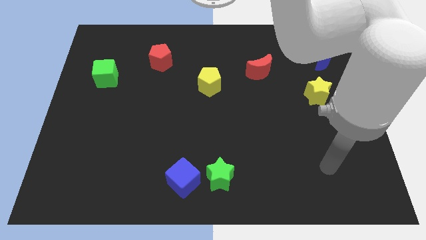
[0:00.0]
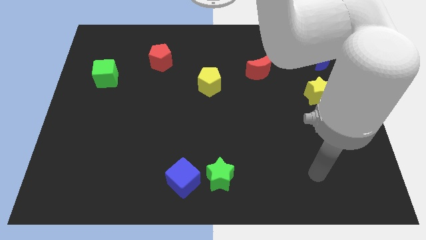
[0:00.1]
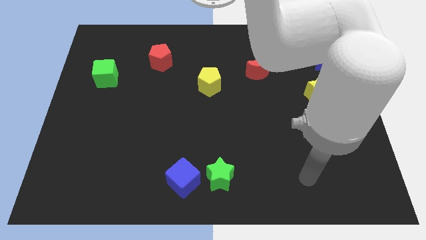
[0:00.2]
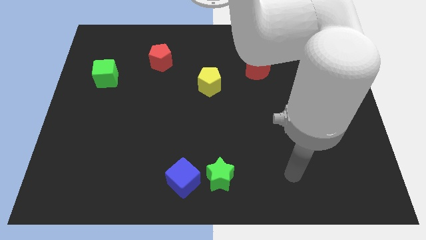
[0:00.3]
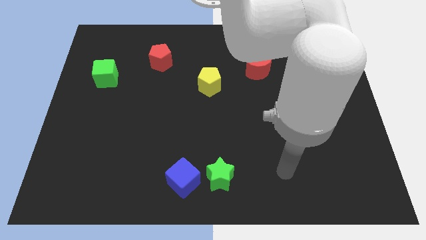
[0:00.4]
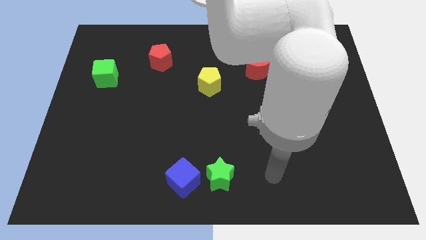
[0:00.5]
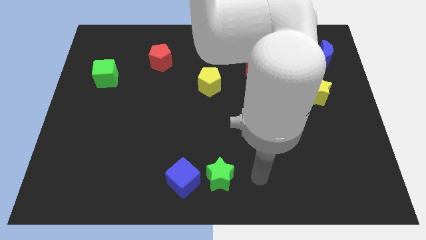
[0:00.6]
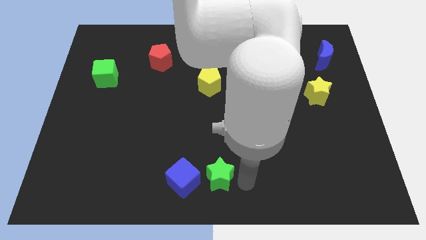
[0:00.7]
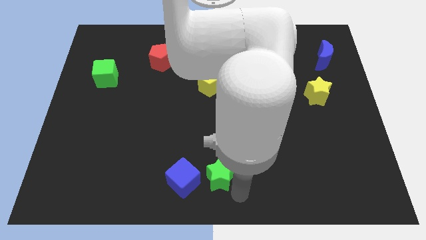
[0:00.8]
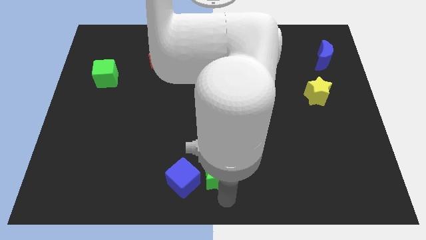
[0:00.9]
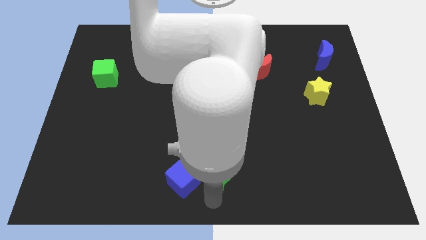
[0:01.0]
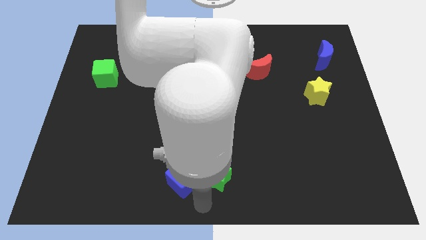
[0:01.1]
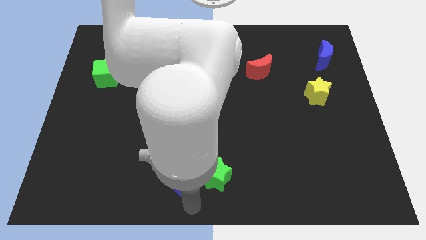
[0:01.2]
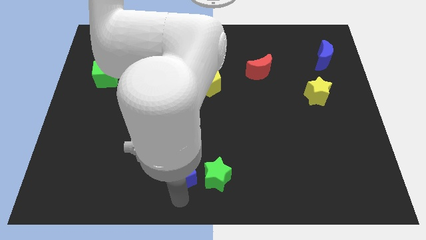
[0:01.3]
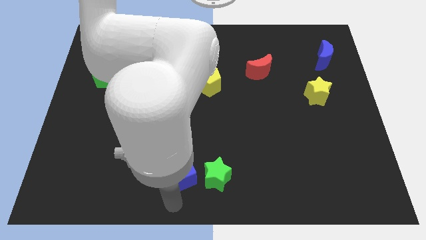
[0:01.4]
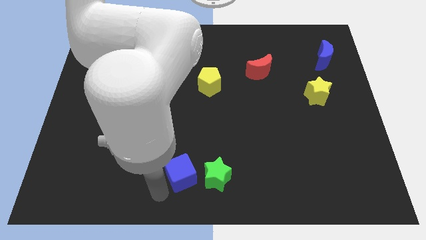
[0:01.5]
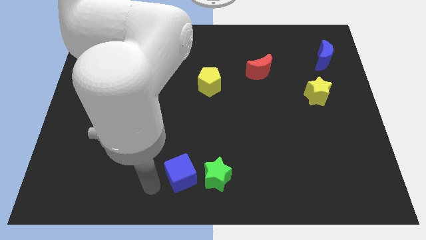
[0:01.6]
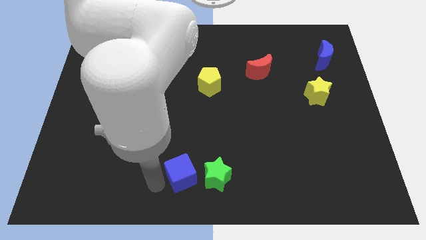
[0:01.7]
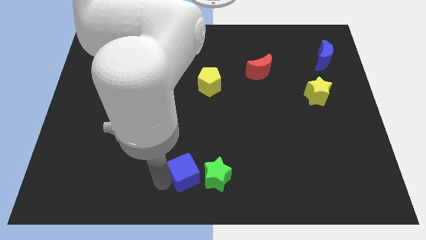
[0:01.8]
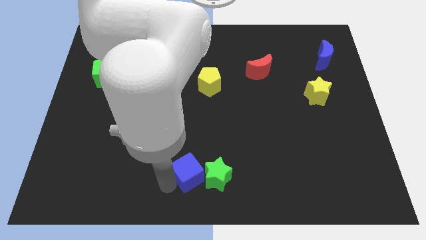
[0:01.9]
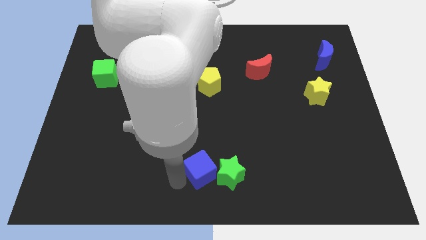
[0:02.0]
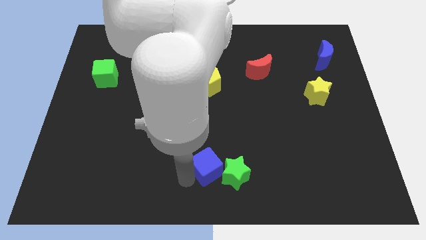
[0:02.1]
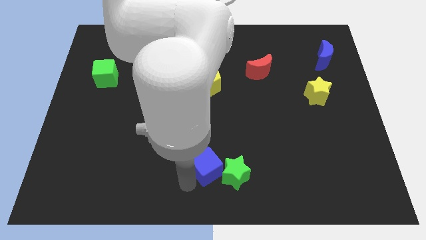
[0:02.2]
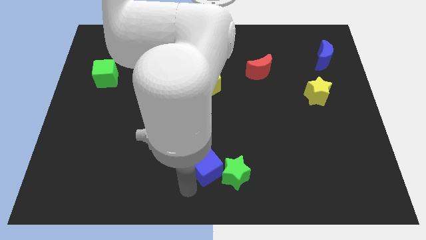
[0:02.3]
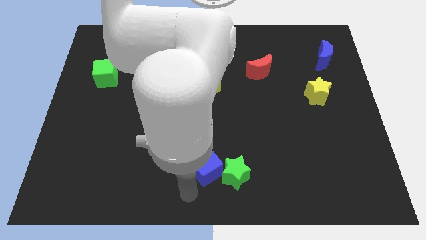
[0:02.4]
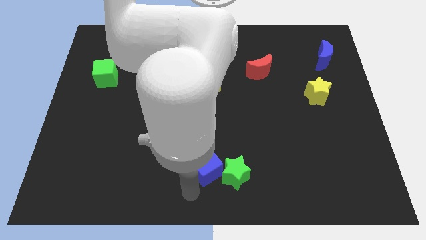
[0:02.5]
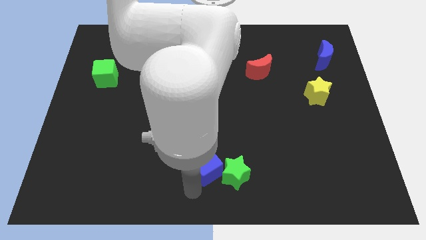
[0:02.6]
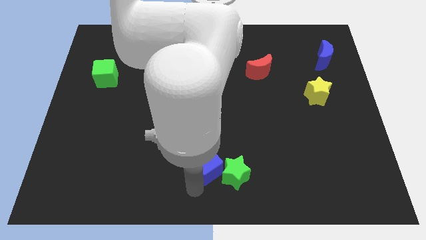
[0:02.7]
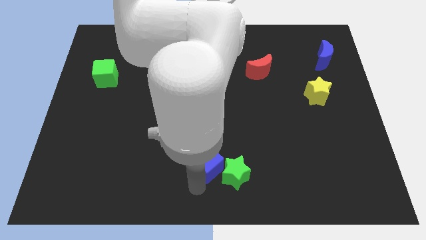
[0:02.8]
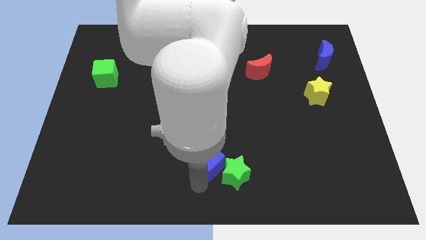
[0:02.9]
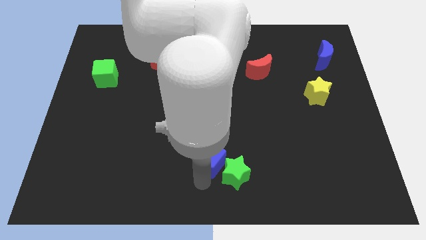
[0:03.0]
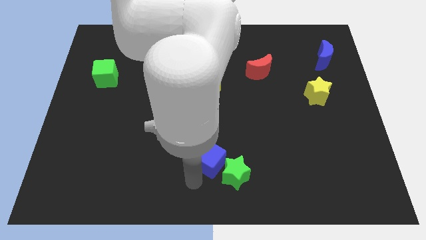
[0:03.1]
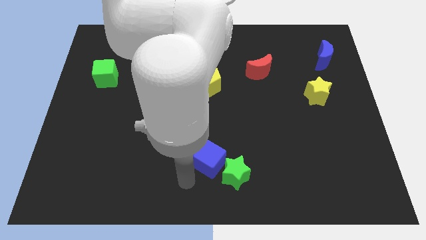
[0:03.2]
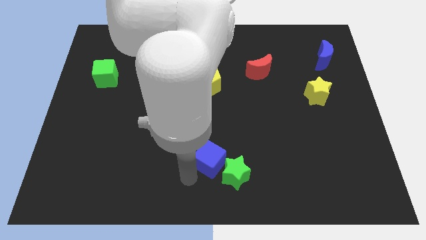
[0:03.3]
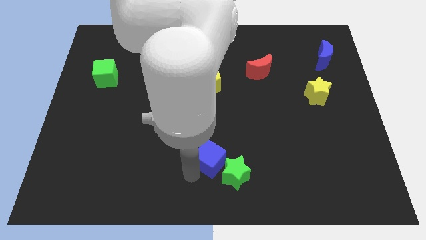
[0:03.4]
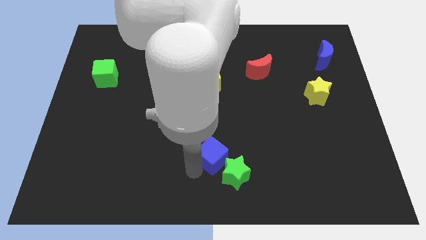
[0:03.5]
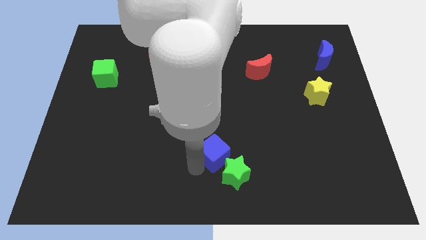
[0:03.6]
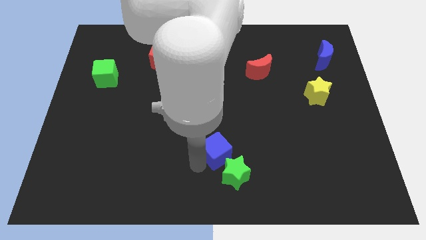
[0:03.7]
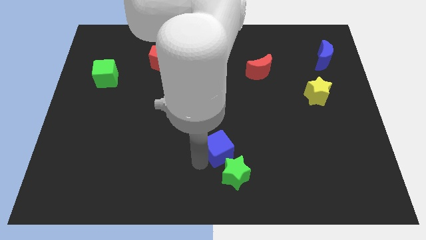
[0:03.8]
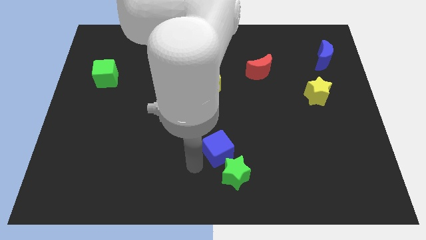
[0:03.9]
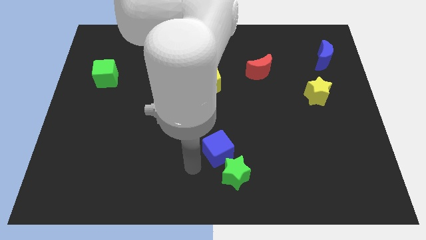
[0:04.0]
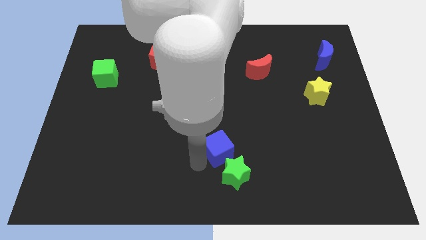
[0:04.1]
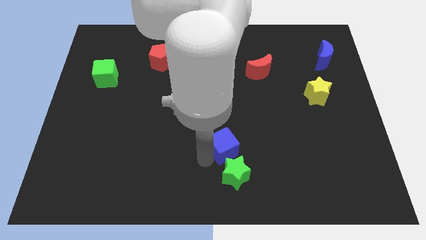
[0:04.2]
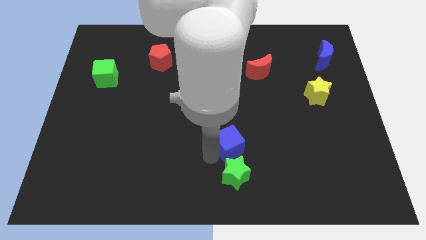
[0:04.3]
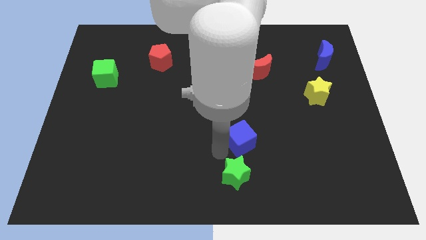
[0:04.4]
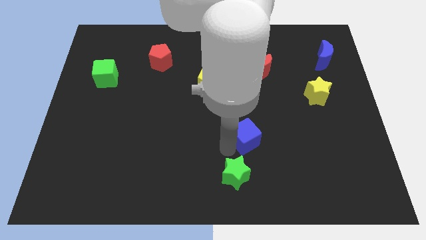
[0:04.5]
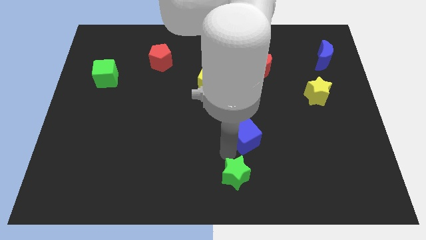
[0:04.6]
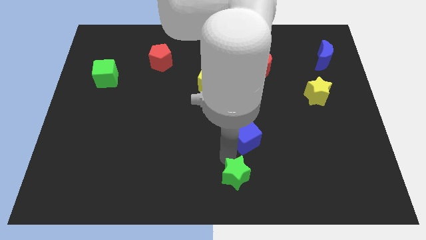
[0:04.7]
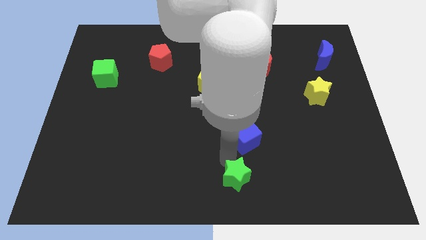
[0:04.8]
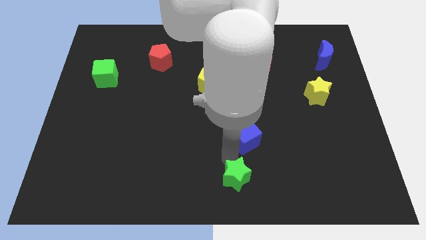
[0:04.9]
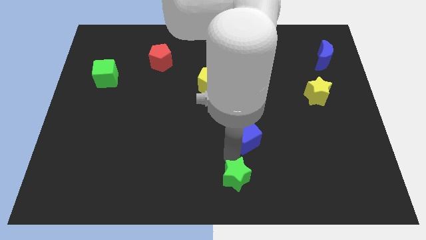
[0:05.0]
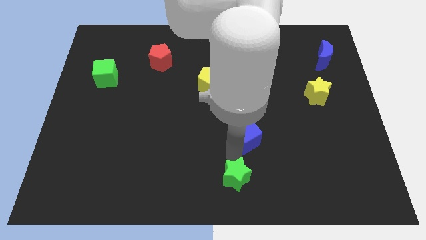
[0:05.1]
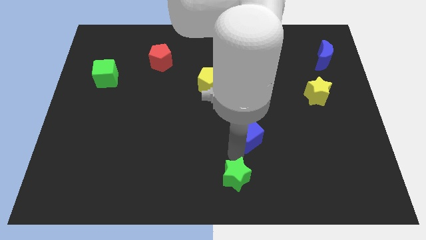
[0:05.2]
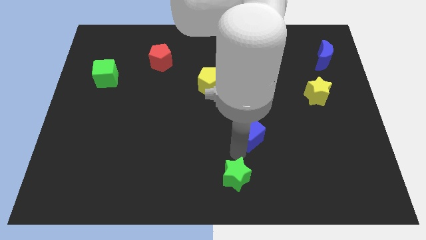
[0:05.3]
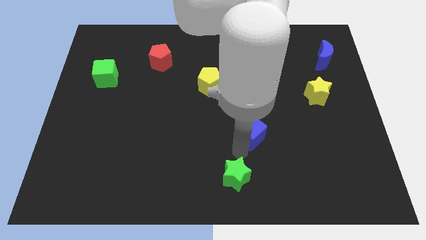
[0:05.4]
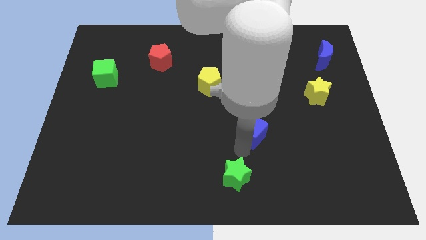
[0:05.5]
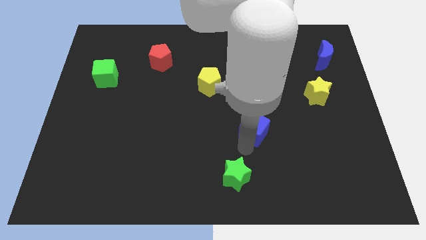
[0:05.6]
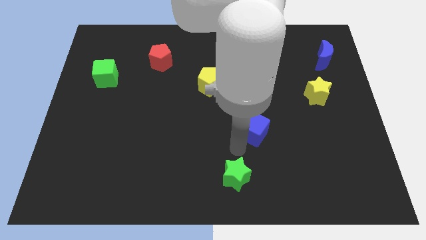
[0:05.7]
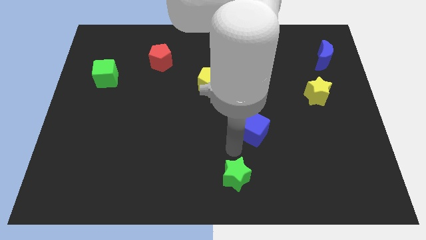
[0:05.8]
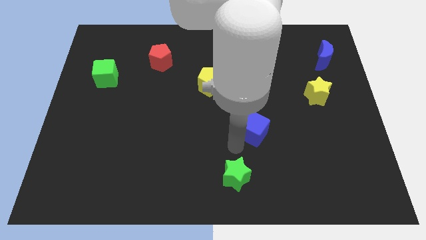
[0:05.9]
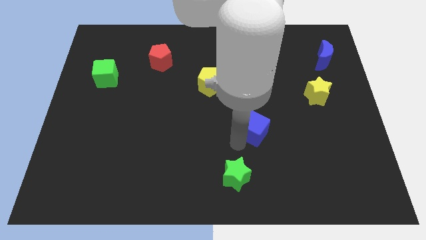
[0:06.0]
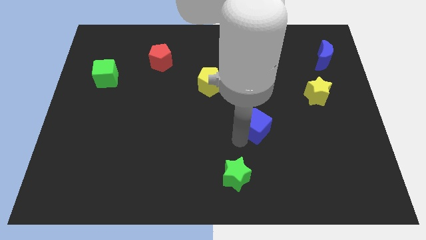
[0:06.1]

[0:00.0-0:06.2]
move the blue cube up and right

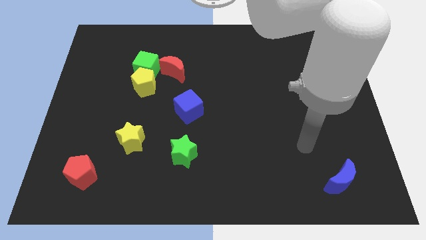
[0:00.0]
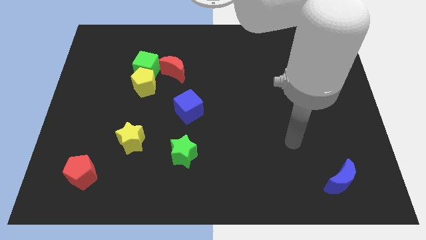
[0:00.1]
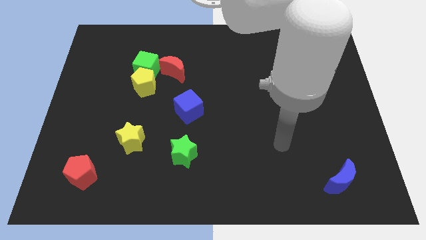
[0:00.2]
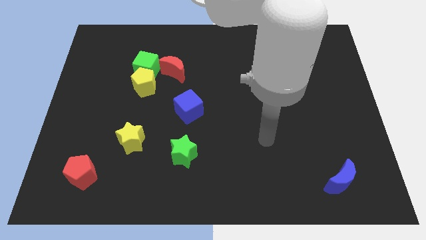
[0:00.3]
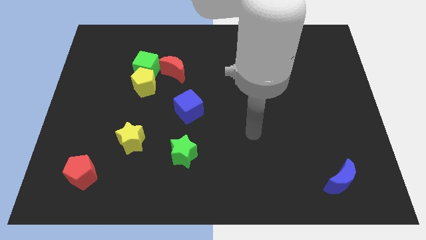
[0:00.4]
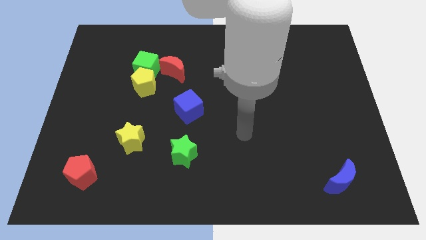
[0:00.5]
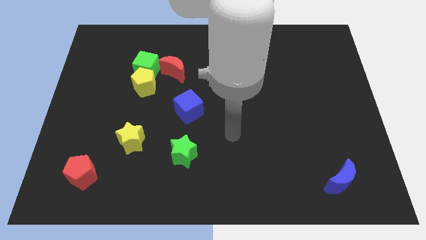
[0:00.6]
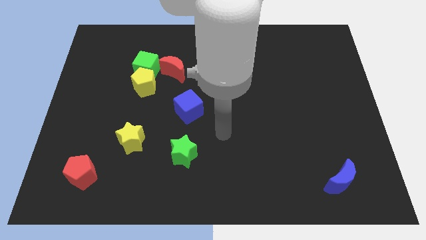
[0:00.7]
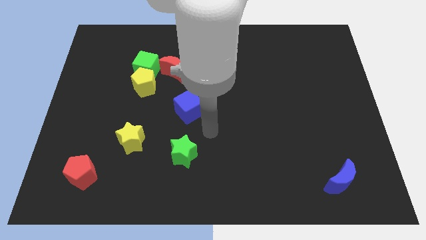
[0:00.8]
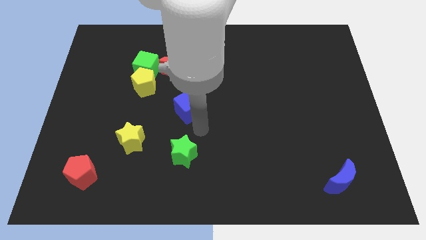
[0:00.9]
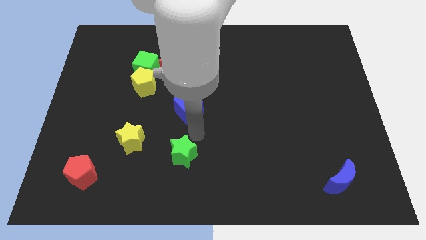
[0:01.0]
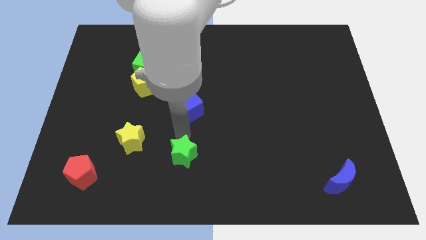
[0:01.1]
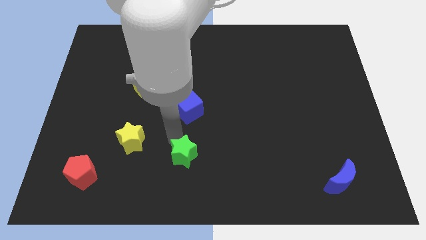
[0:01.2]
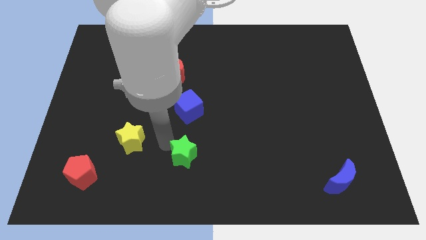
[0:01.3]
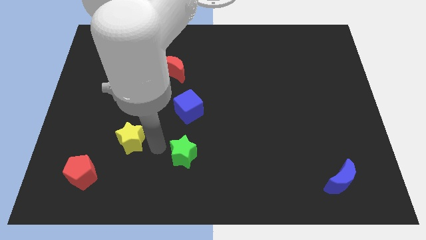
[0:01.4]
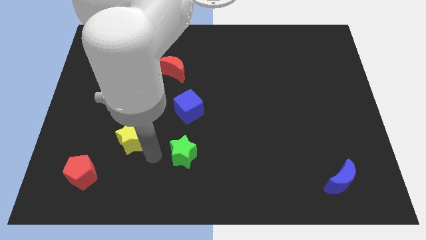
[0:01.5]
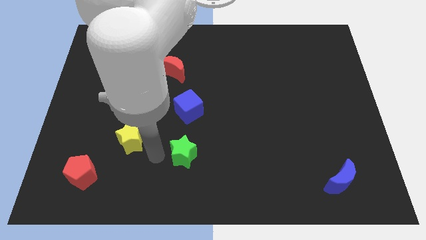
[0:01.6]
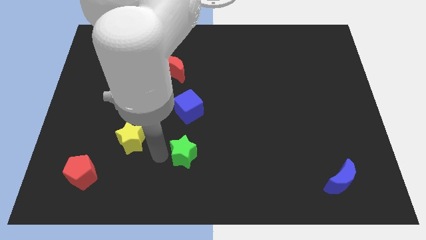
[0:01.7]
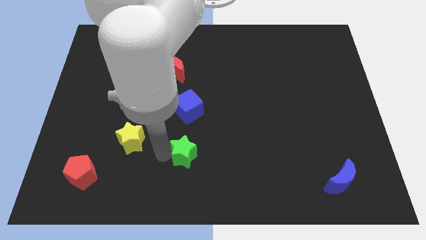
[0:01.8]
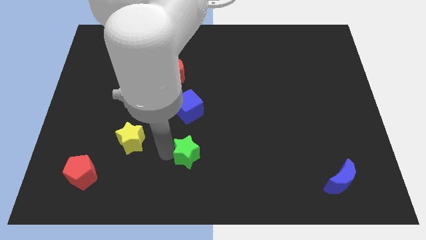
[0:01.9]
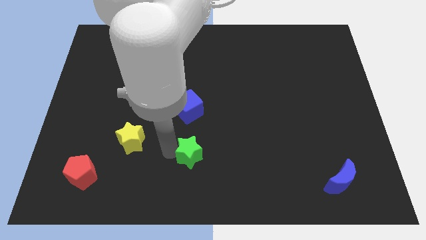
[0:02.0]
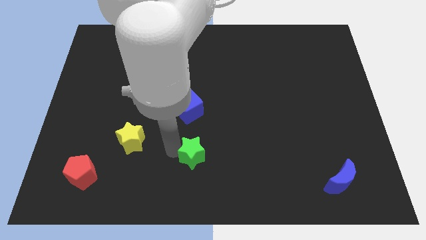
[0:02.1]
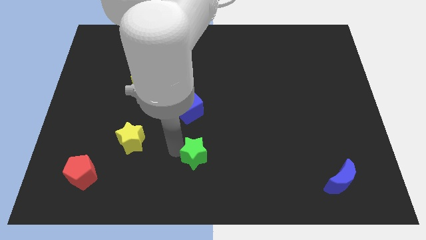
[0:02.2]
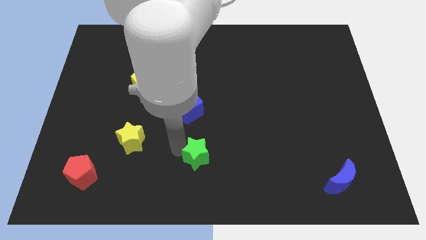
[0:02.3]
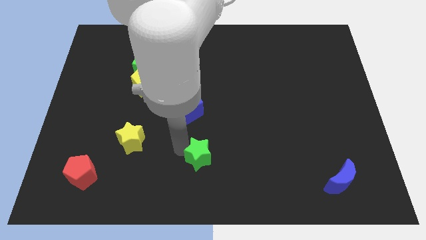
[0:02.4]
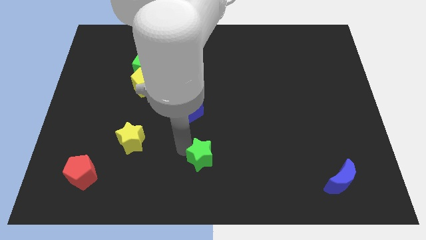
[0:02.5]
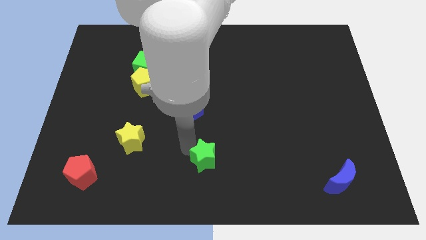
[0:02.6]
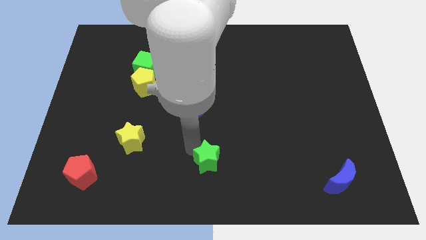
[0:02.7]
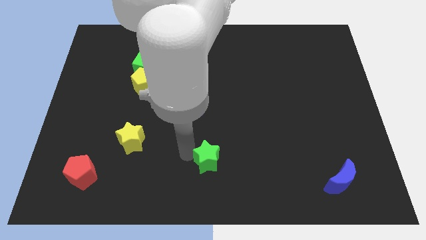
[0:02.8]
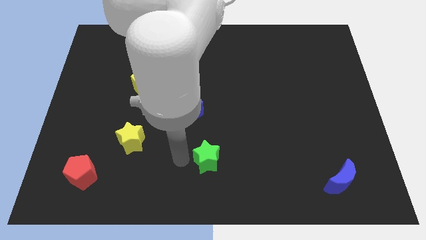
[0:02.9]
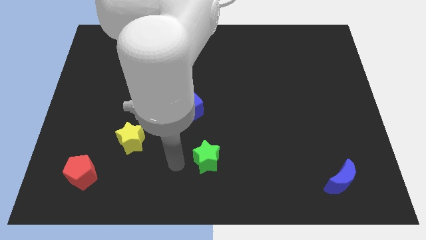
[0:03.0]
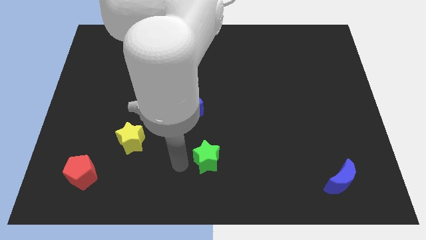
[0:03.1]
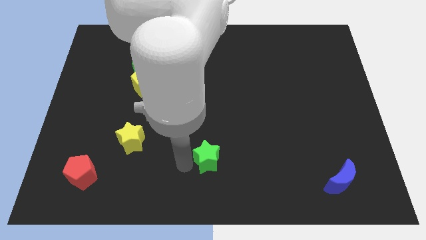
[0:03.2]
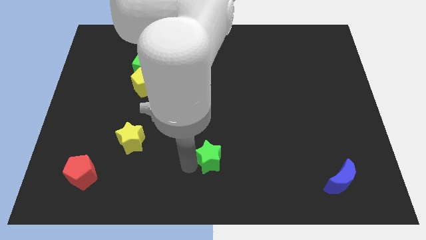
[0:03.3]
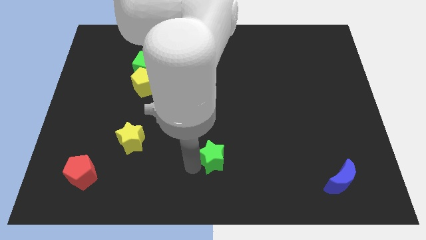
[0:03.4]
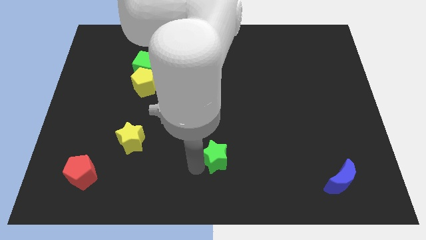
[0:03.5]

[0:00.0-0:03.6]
slightly push the green star to the right
